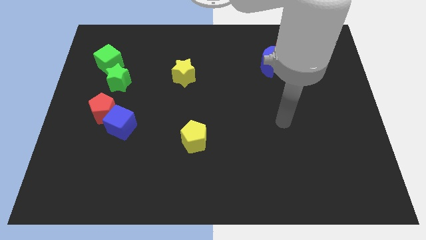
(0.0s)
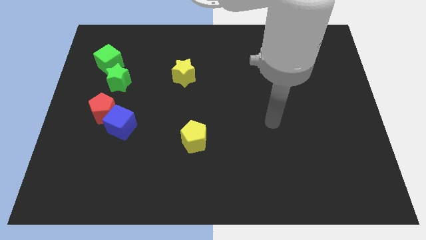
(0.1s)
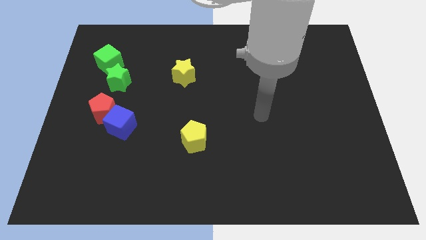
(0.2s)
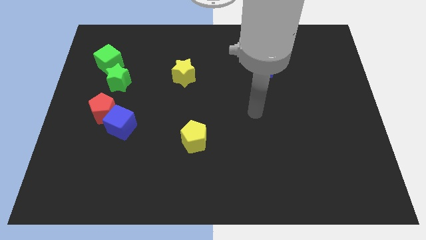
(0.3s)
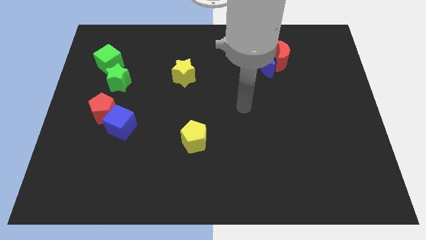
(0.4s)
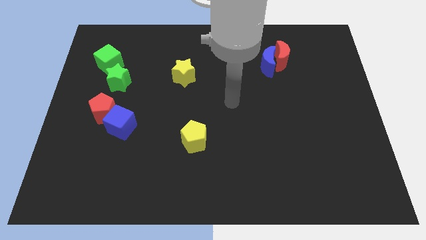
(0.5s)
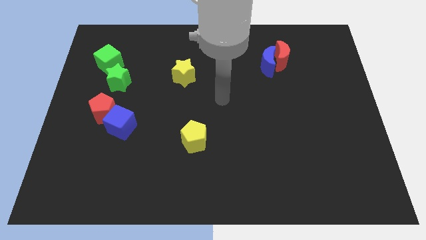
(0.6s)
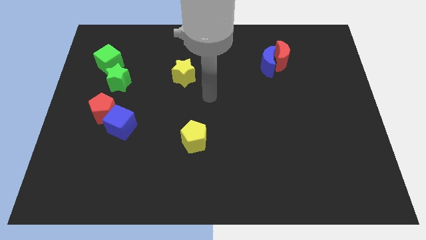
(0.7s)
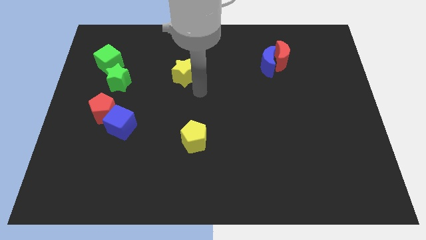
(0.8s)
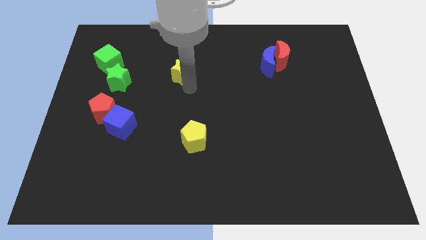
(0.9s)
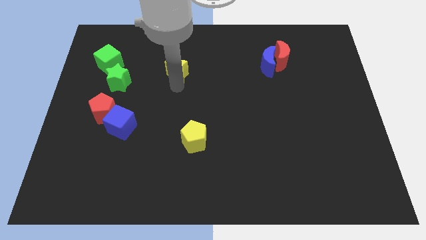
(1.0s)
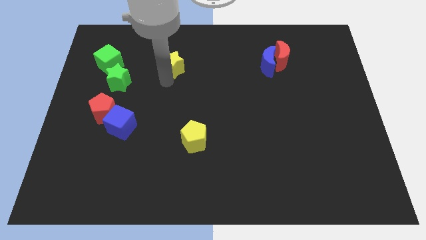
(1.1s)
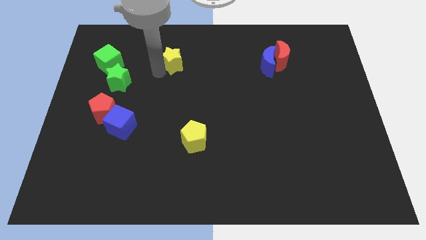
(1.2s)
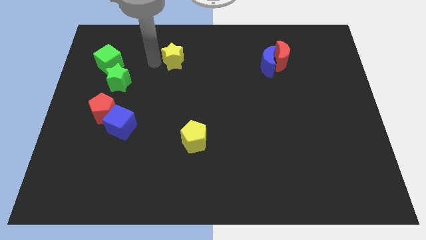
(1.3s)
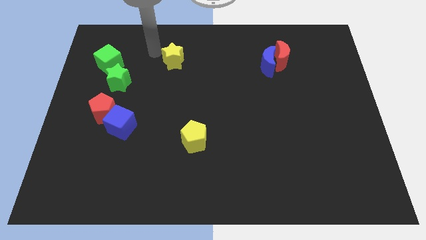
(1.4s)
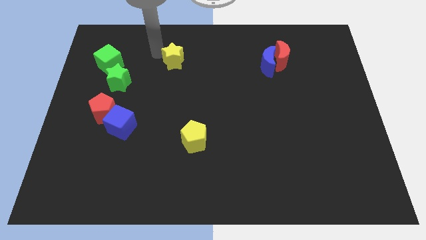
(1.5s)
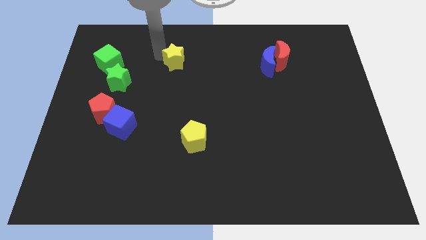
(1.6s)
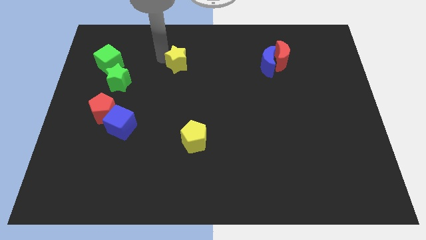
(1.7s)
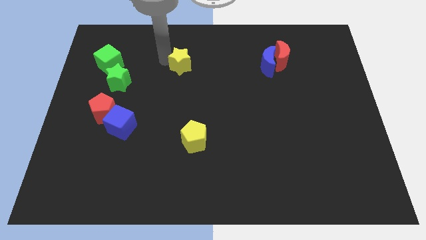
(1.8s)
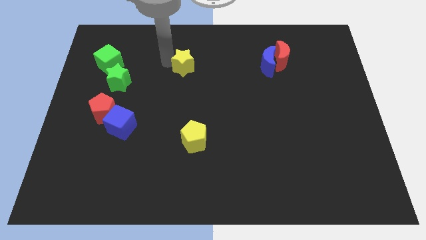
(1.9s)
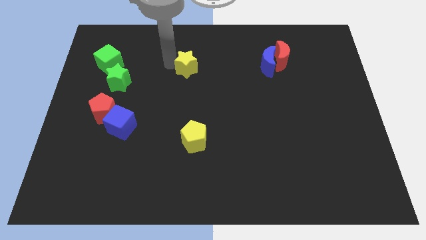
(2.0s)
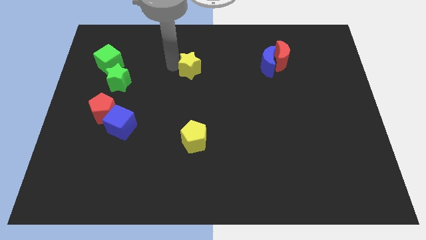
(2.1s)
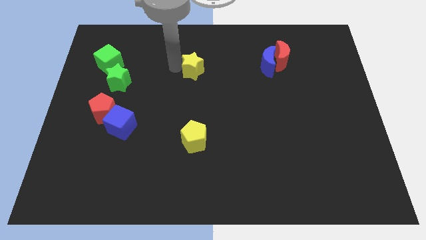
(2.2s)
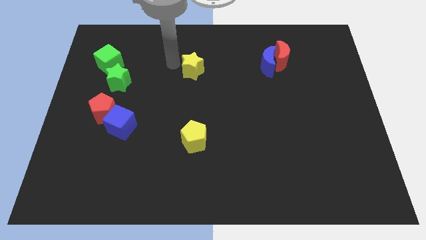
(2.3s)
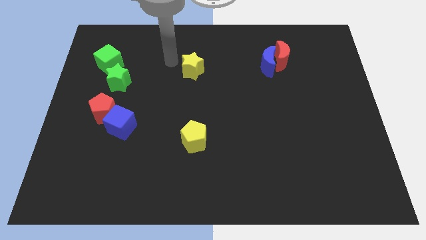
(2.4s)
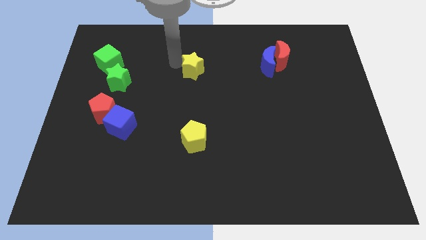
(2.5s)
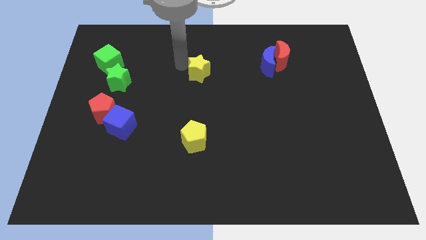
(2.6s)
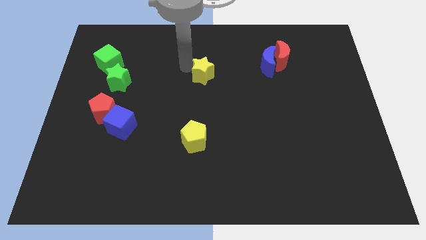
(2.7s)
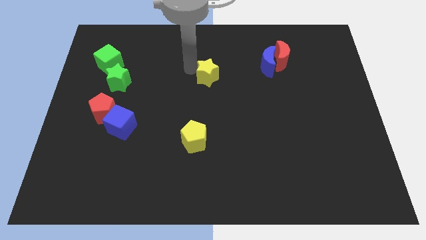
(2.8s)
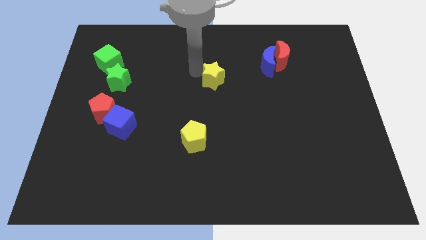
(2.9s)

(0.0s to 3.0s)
push the yellow star to the right somewhat

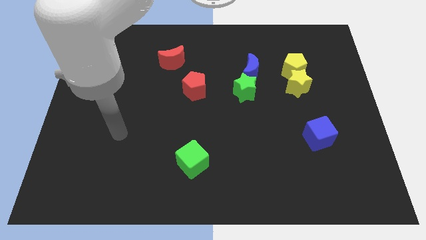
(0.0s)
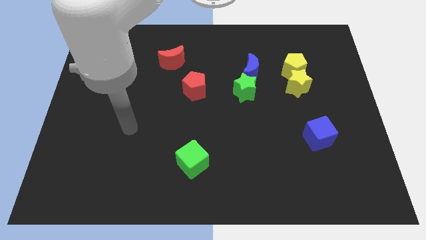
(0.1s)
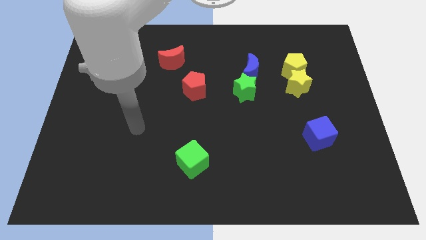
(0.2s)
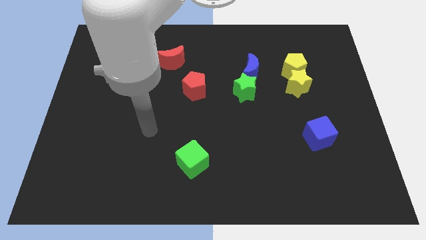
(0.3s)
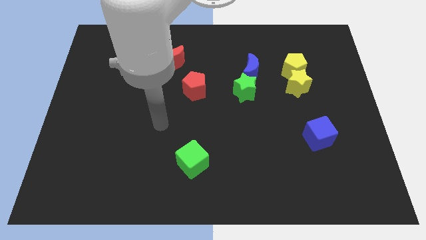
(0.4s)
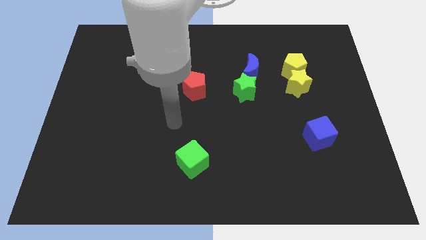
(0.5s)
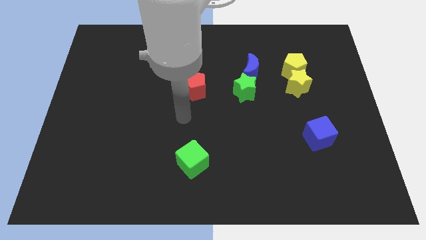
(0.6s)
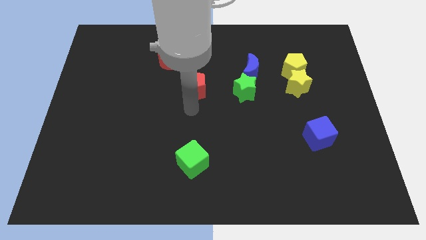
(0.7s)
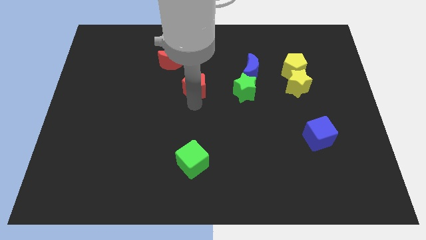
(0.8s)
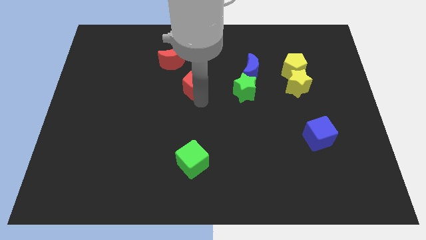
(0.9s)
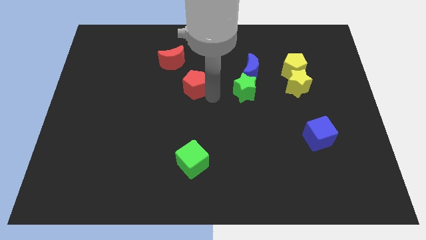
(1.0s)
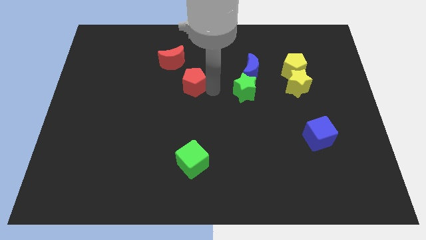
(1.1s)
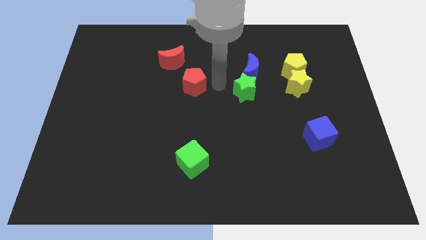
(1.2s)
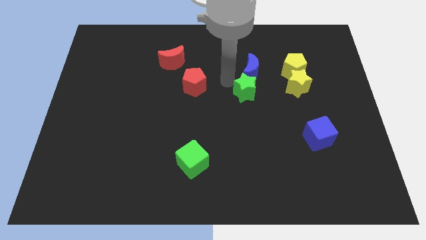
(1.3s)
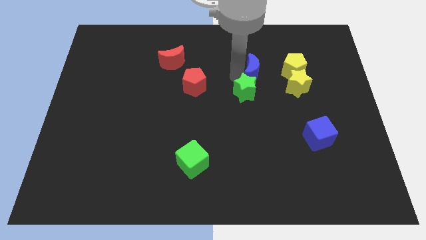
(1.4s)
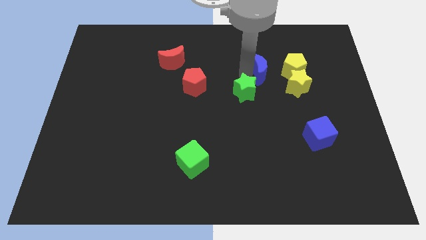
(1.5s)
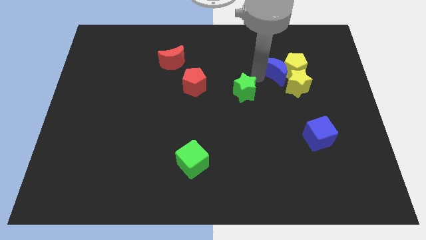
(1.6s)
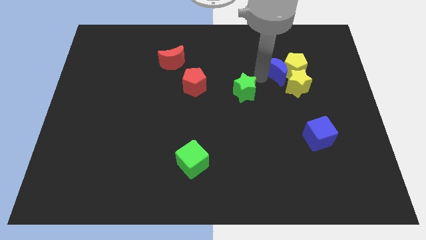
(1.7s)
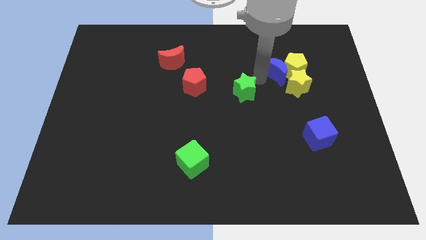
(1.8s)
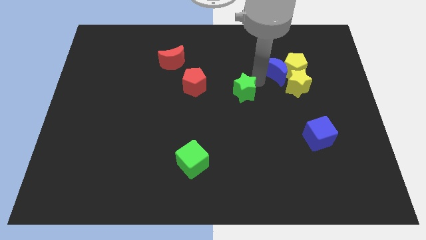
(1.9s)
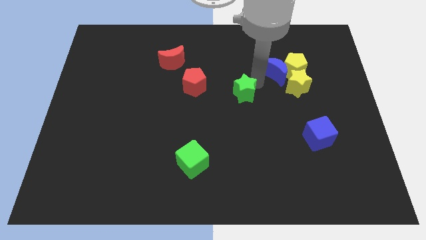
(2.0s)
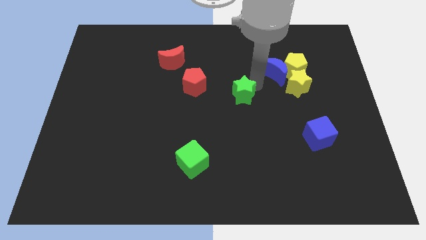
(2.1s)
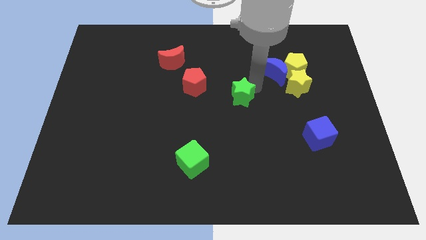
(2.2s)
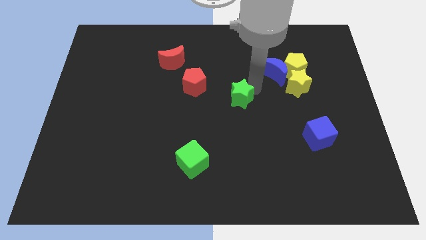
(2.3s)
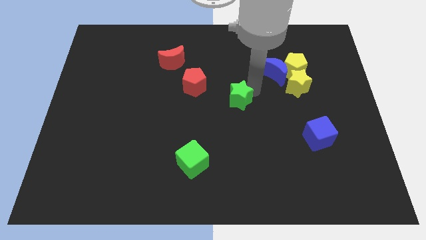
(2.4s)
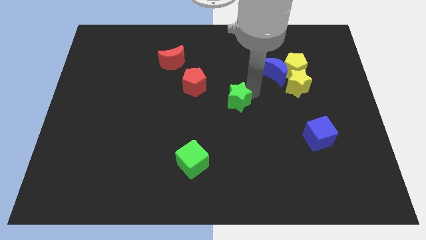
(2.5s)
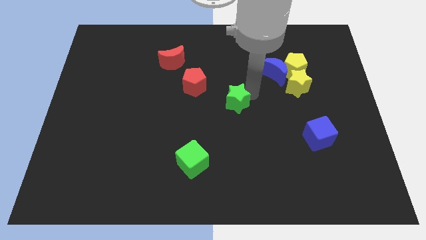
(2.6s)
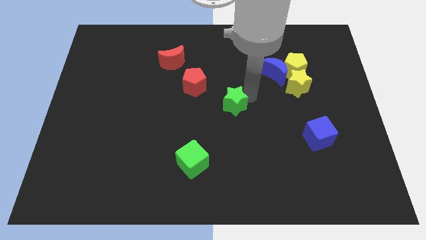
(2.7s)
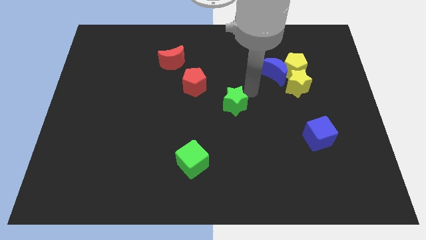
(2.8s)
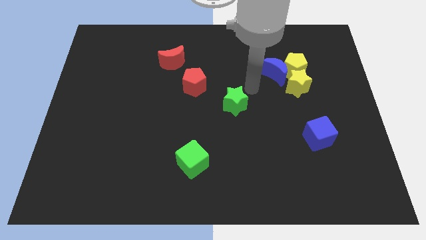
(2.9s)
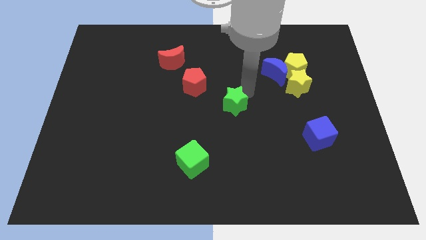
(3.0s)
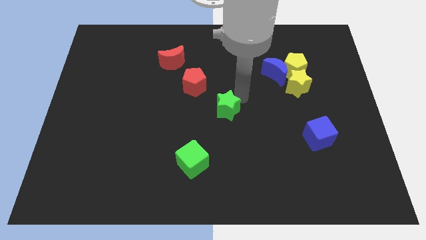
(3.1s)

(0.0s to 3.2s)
slide the green star slightly down and then left

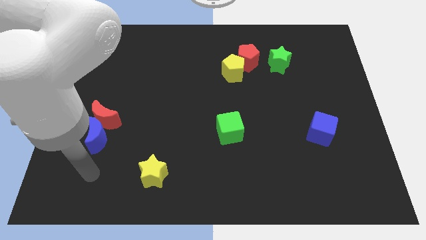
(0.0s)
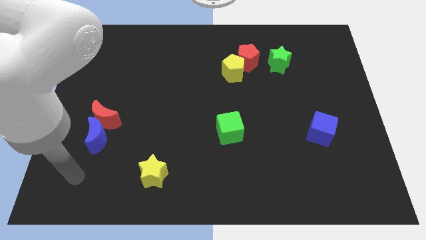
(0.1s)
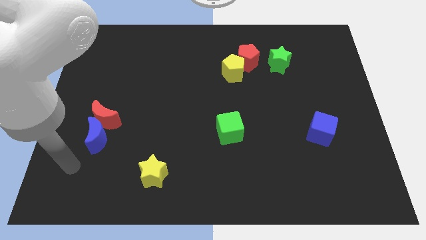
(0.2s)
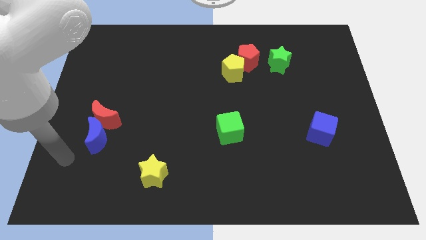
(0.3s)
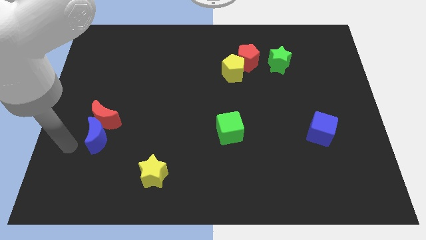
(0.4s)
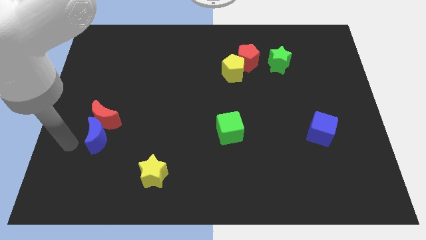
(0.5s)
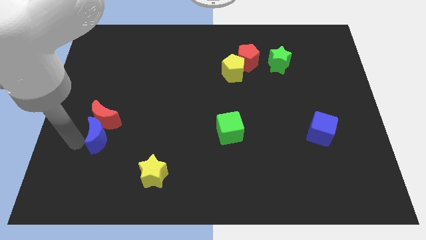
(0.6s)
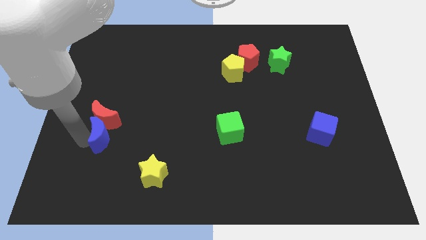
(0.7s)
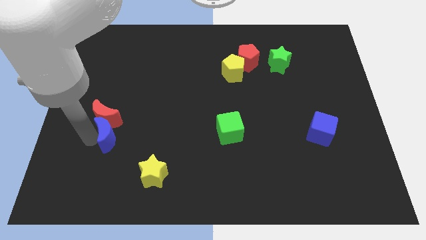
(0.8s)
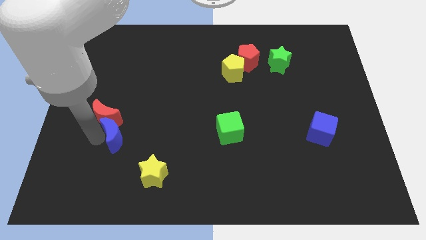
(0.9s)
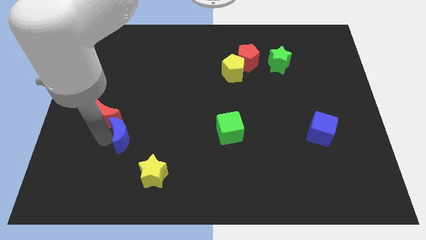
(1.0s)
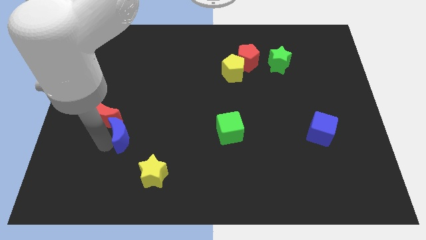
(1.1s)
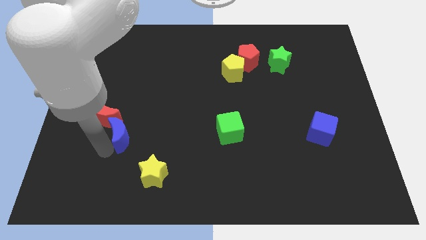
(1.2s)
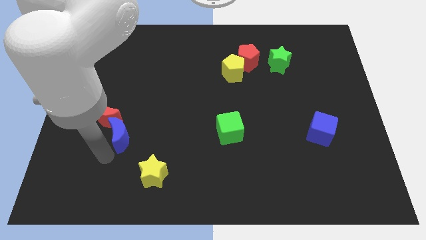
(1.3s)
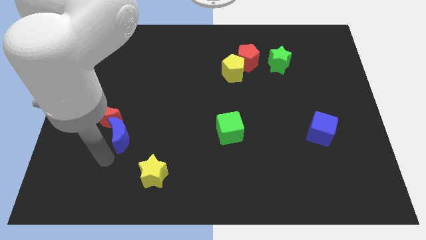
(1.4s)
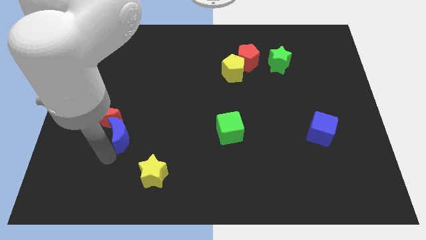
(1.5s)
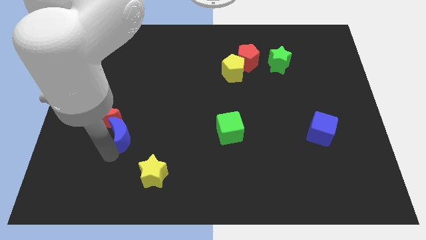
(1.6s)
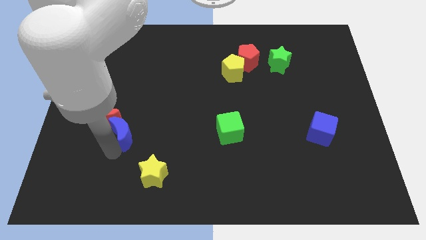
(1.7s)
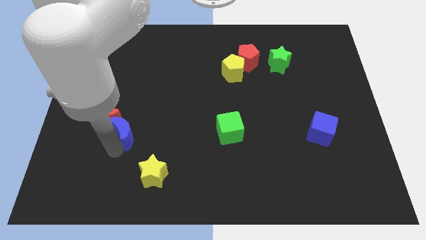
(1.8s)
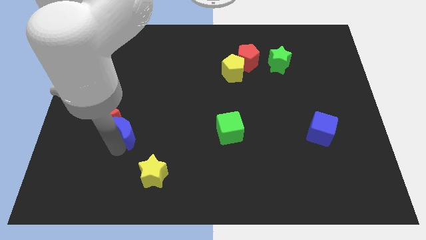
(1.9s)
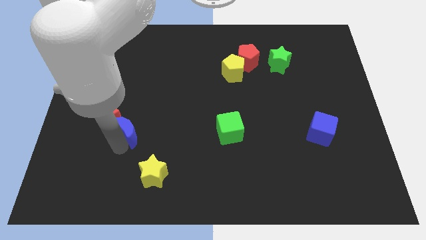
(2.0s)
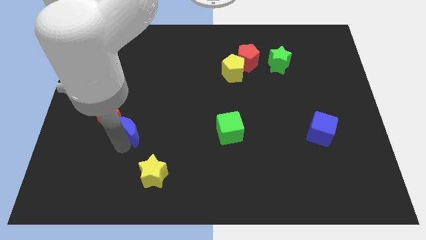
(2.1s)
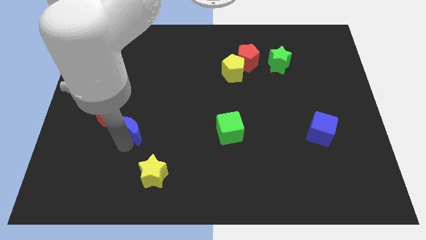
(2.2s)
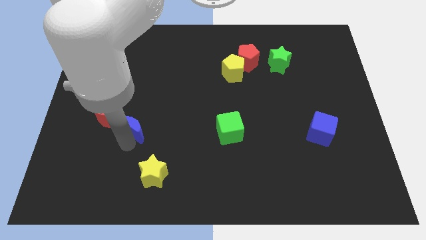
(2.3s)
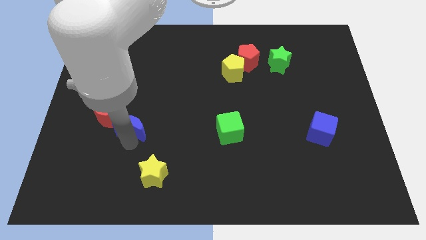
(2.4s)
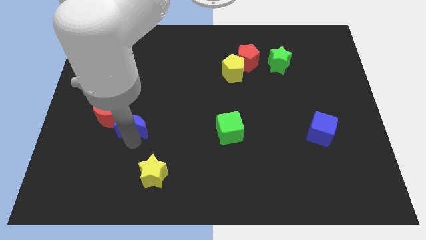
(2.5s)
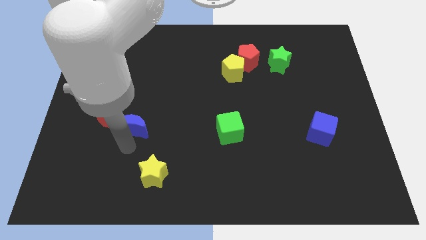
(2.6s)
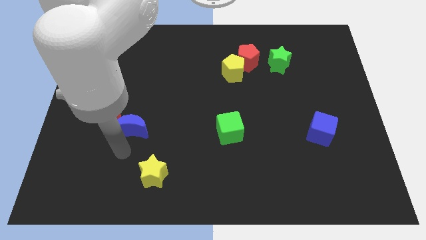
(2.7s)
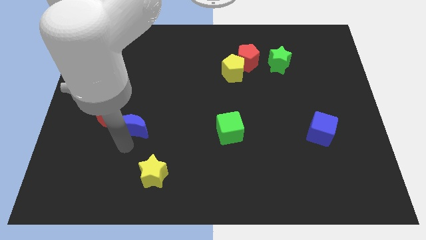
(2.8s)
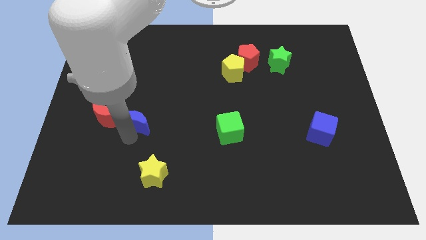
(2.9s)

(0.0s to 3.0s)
move the blue moon a bit up and then to the right
